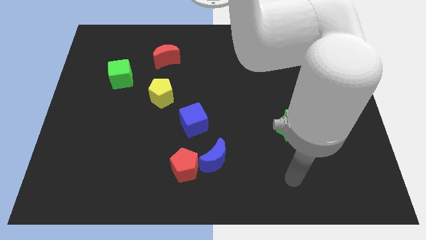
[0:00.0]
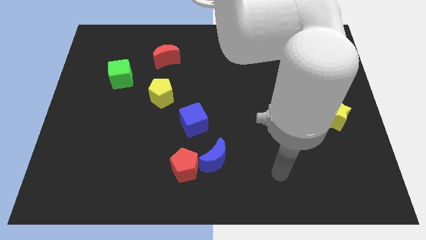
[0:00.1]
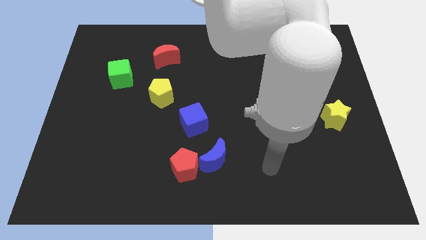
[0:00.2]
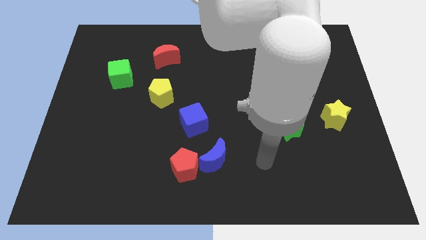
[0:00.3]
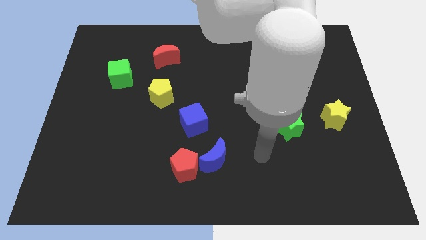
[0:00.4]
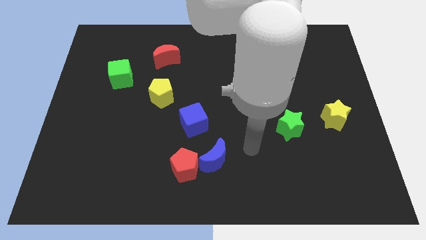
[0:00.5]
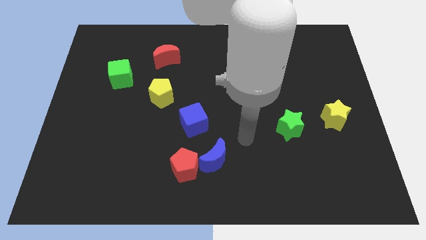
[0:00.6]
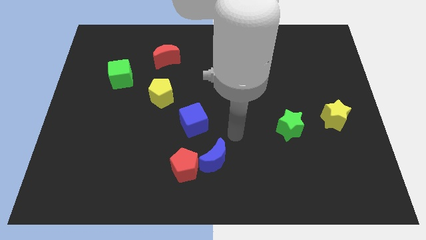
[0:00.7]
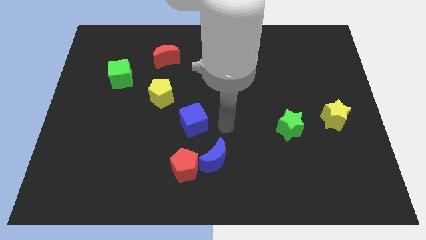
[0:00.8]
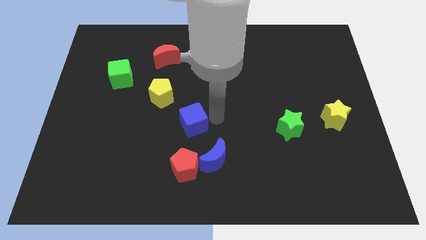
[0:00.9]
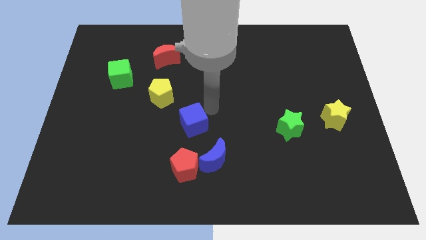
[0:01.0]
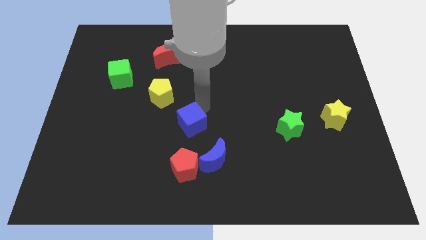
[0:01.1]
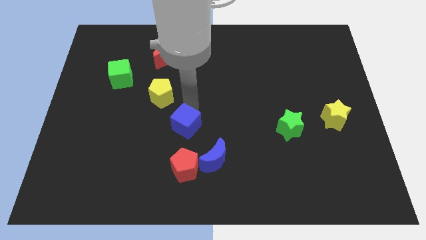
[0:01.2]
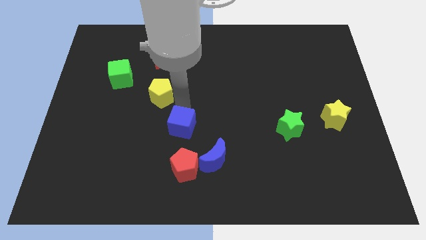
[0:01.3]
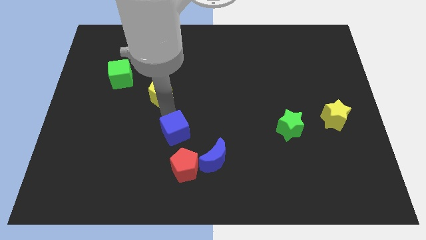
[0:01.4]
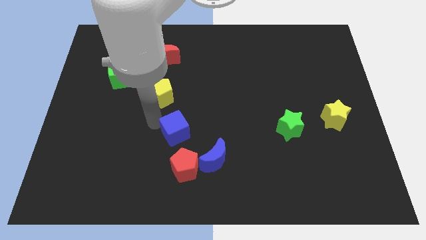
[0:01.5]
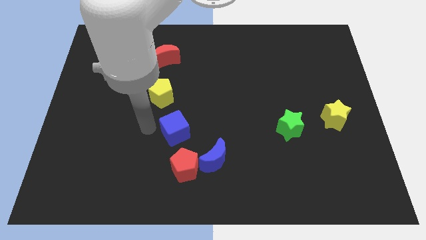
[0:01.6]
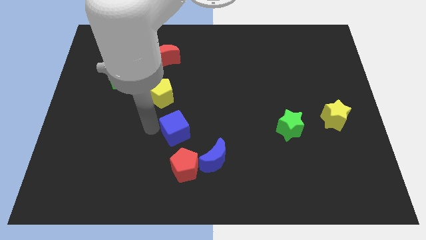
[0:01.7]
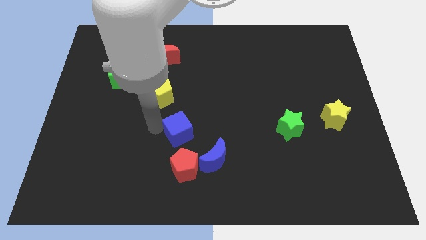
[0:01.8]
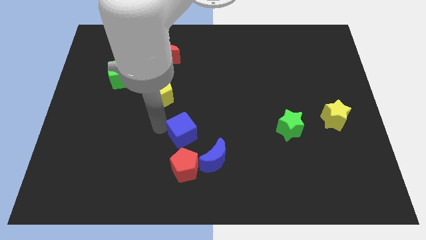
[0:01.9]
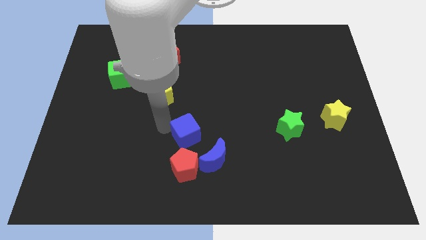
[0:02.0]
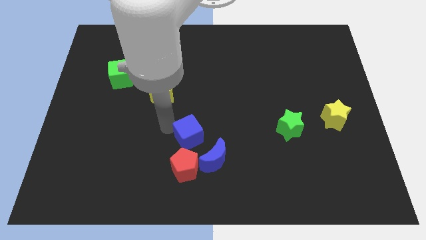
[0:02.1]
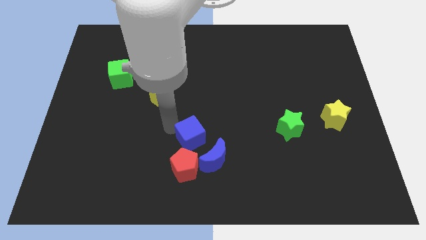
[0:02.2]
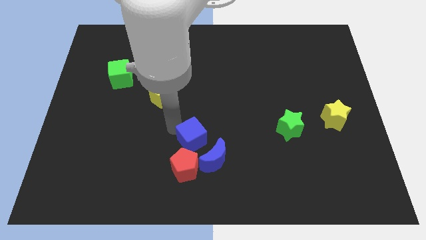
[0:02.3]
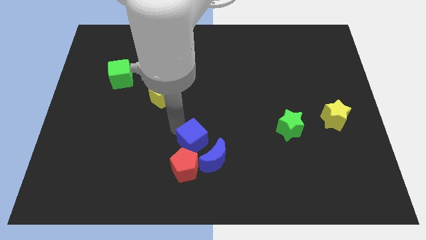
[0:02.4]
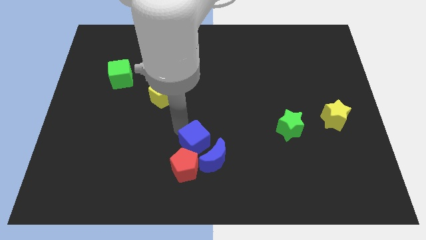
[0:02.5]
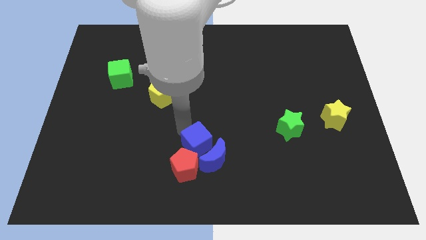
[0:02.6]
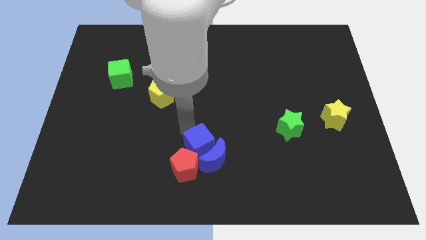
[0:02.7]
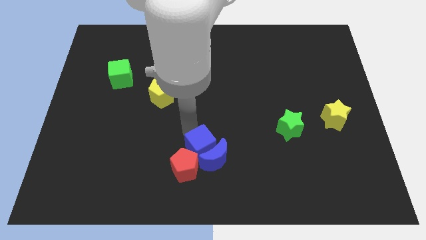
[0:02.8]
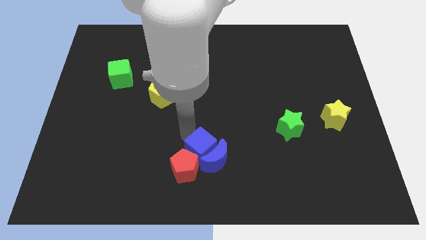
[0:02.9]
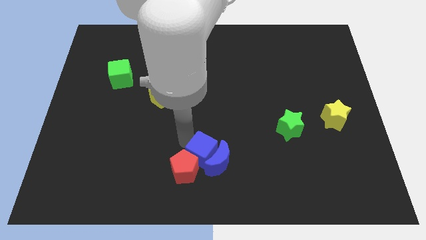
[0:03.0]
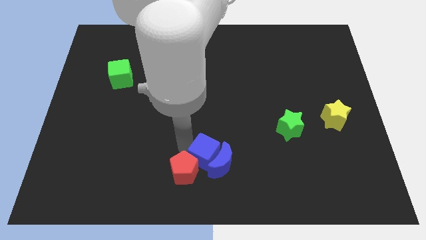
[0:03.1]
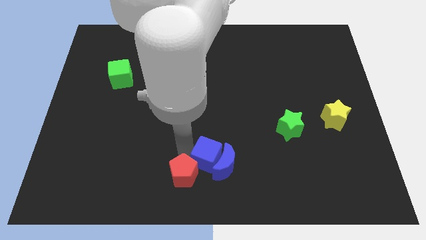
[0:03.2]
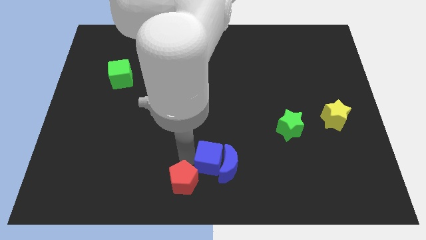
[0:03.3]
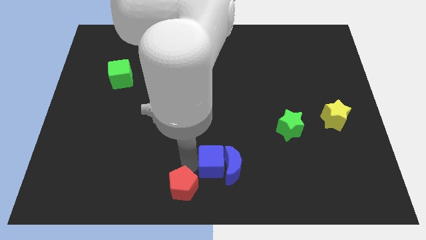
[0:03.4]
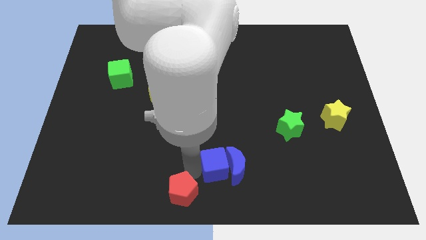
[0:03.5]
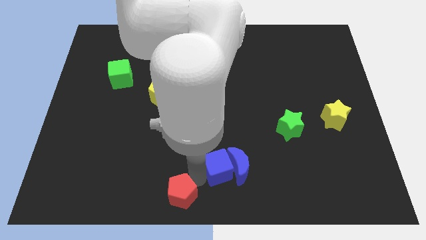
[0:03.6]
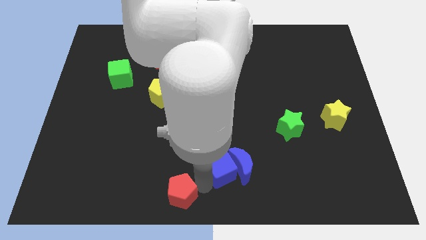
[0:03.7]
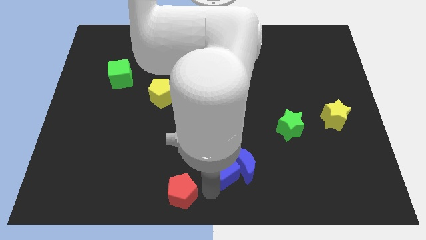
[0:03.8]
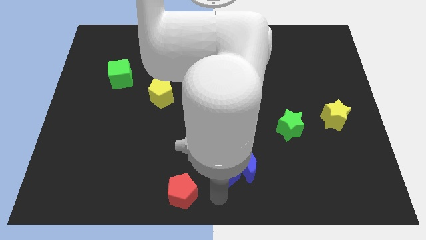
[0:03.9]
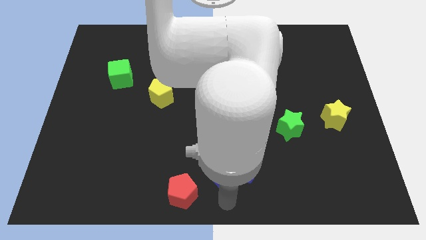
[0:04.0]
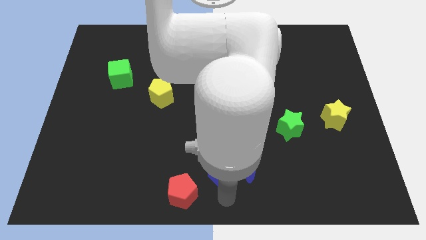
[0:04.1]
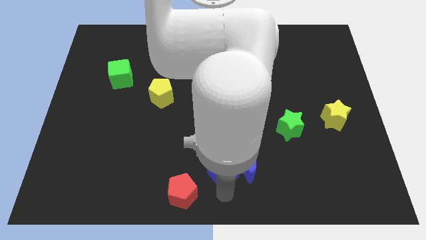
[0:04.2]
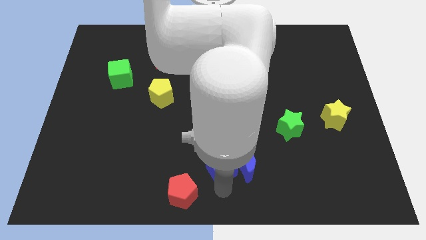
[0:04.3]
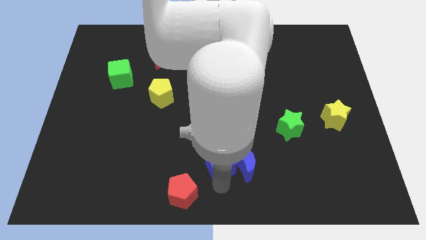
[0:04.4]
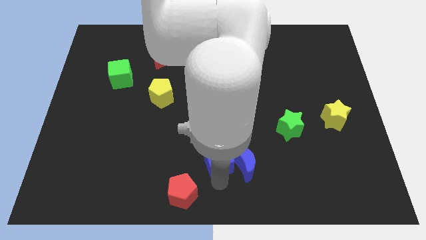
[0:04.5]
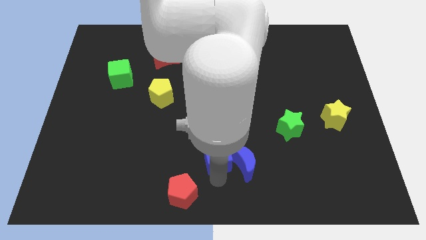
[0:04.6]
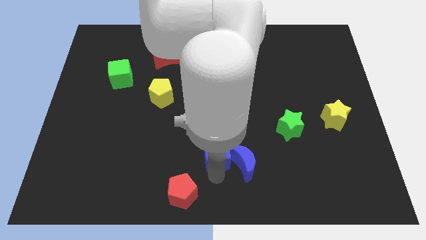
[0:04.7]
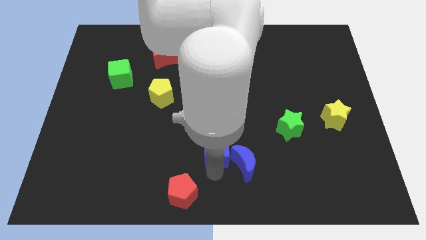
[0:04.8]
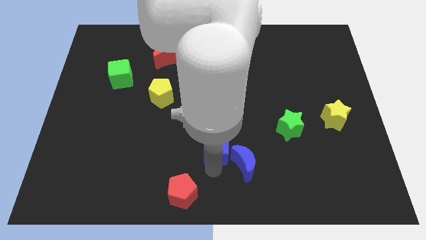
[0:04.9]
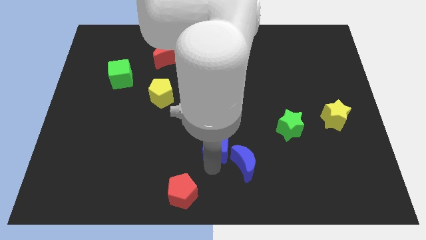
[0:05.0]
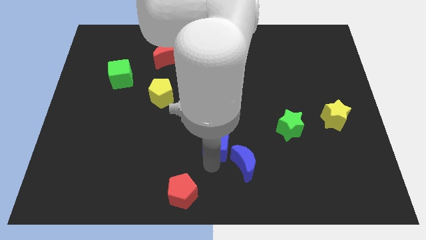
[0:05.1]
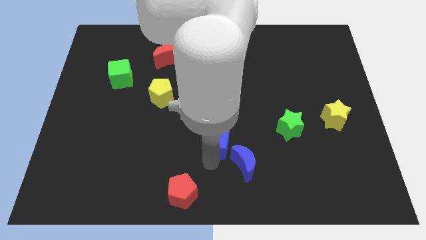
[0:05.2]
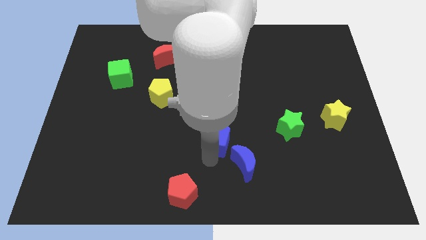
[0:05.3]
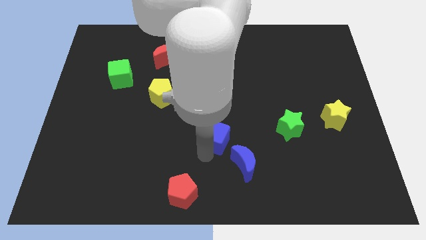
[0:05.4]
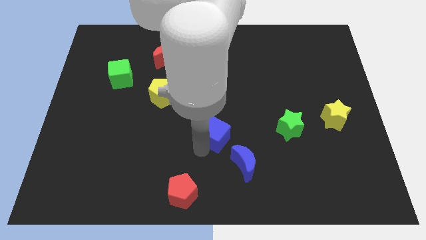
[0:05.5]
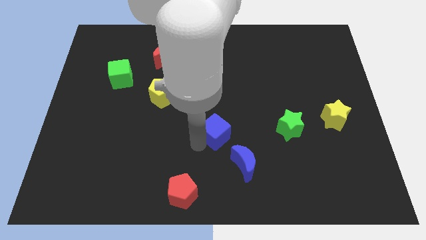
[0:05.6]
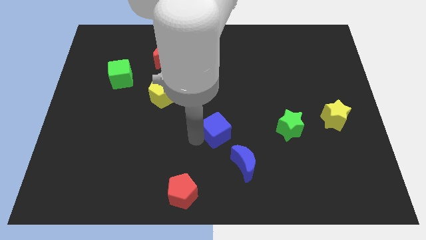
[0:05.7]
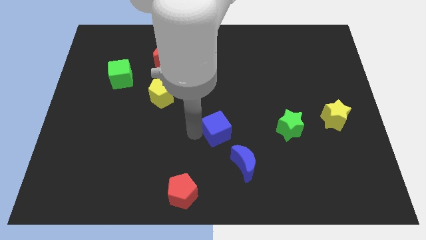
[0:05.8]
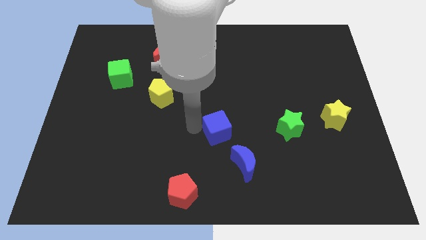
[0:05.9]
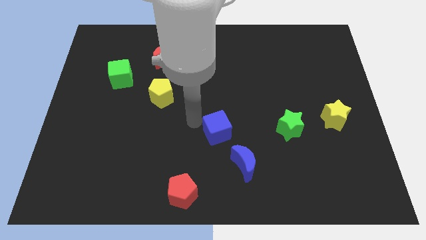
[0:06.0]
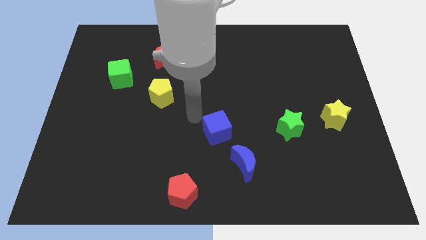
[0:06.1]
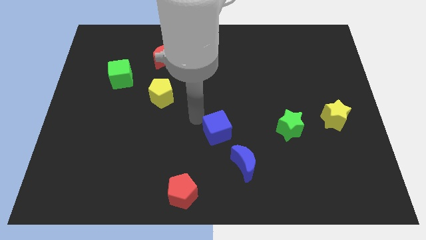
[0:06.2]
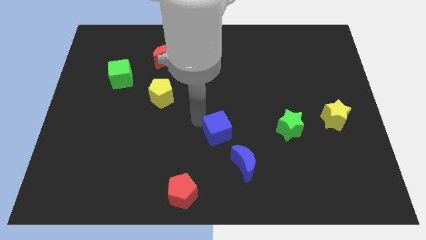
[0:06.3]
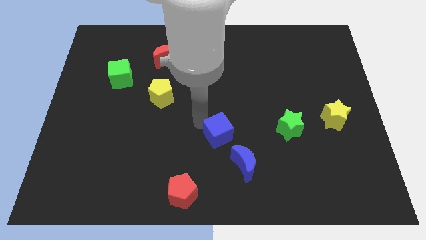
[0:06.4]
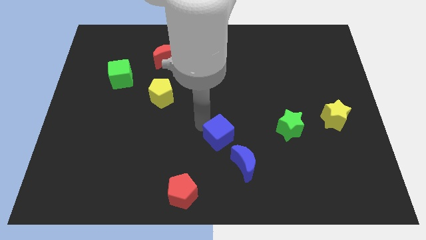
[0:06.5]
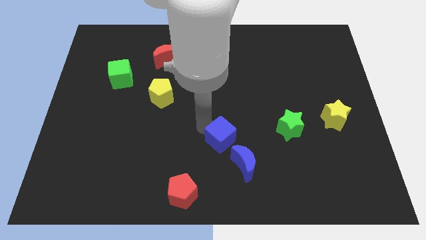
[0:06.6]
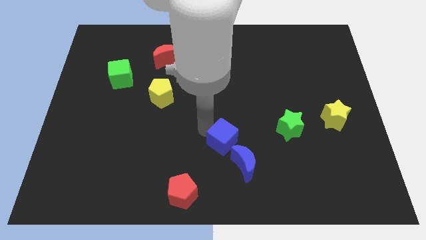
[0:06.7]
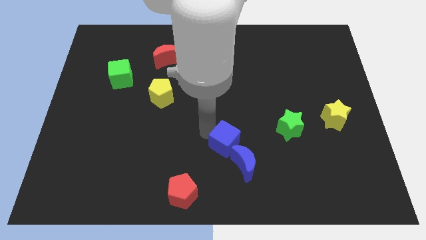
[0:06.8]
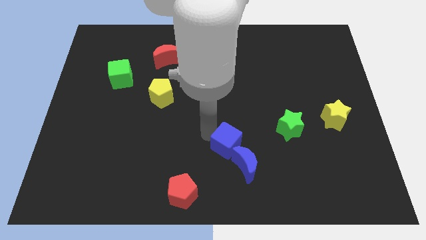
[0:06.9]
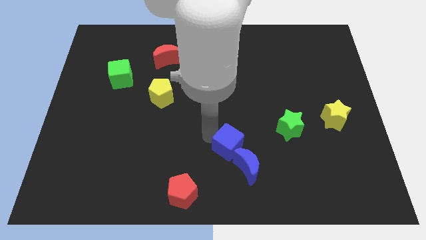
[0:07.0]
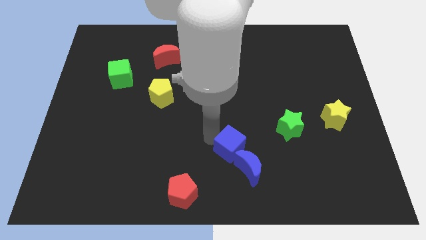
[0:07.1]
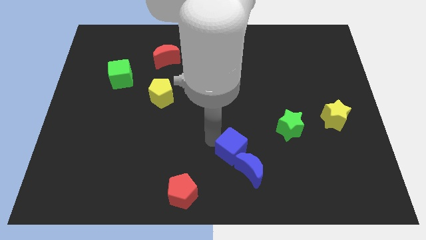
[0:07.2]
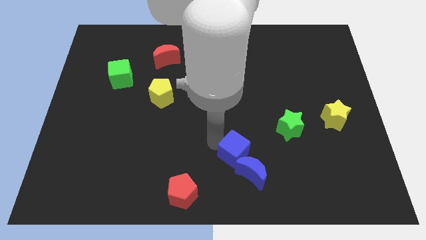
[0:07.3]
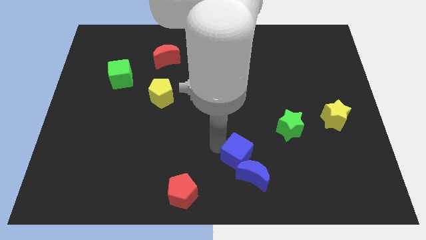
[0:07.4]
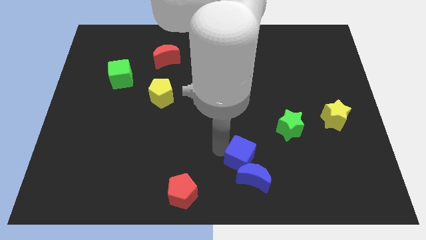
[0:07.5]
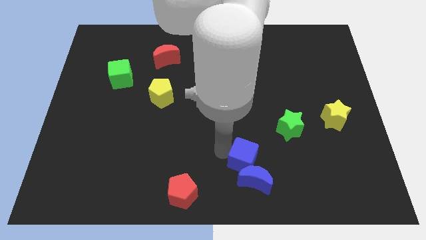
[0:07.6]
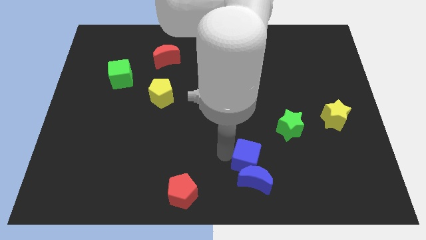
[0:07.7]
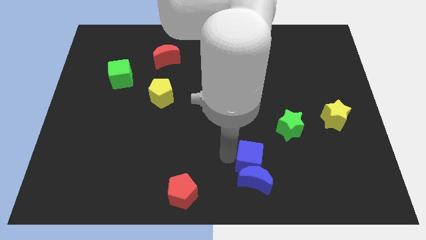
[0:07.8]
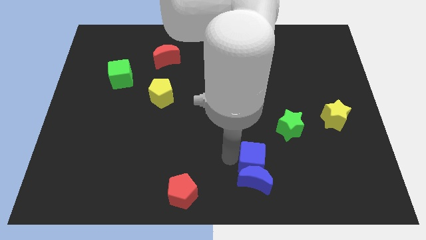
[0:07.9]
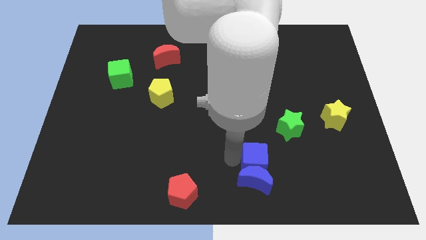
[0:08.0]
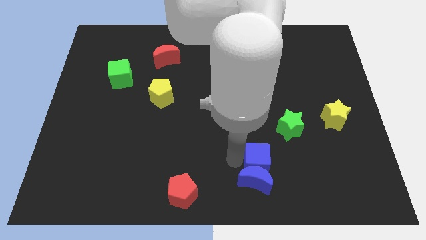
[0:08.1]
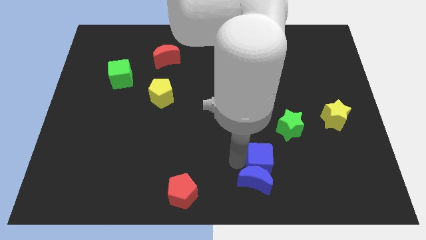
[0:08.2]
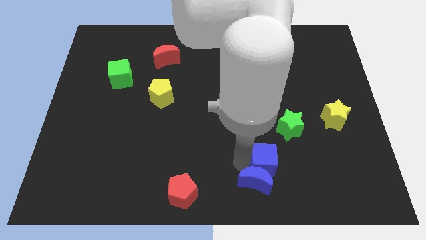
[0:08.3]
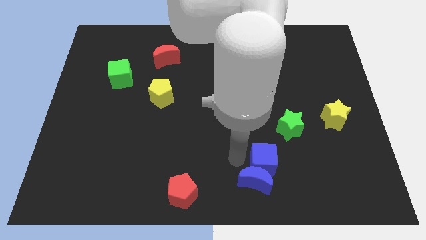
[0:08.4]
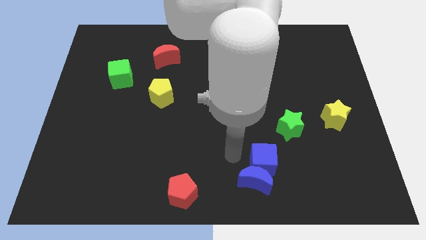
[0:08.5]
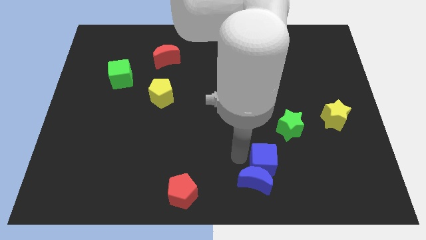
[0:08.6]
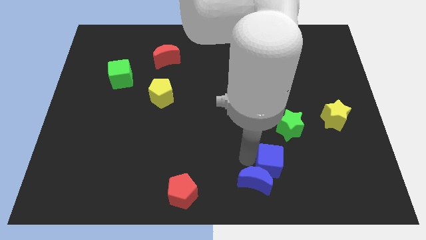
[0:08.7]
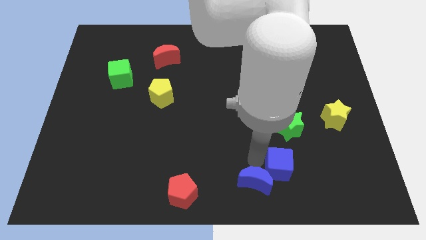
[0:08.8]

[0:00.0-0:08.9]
push the blue cube to the bottom of the green star
